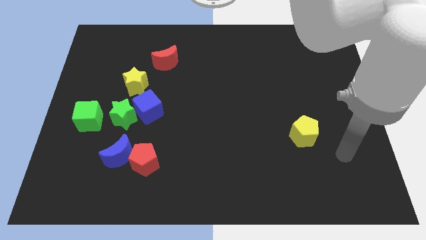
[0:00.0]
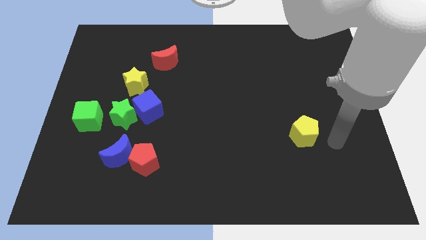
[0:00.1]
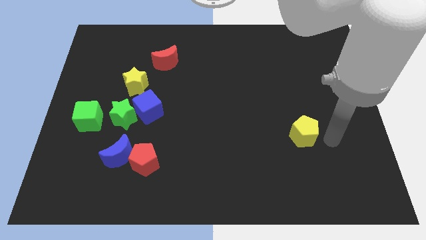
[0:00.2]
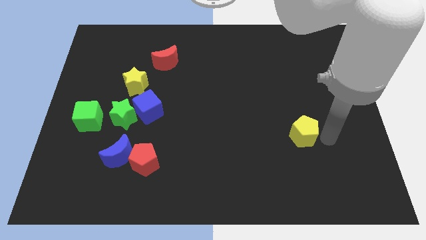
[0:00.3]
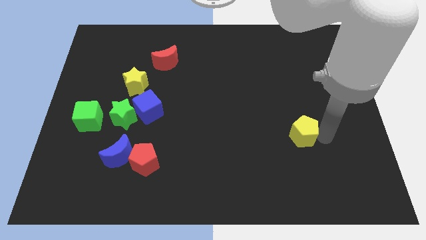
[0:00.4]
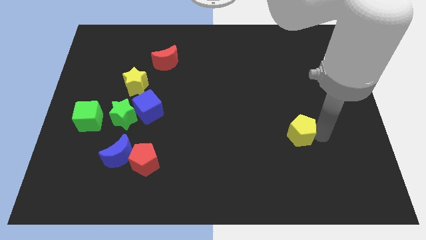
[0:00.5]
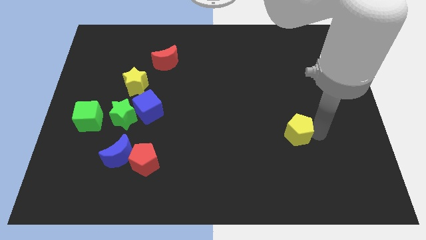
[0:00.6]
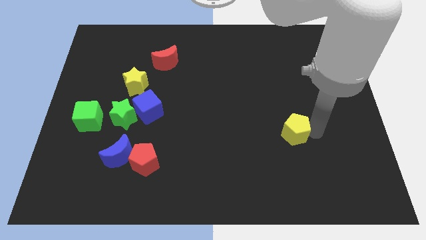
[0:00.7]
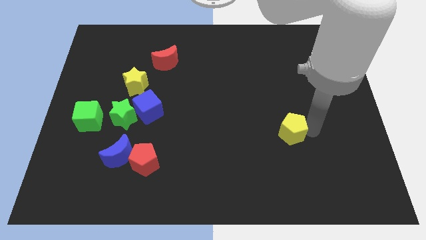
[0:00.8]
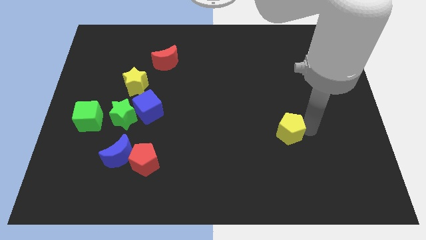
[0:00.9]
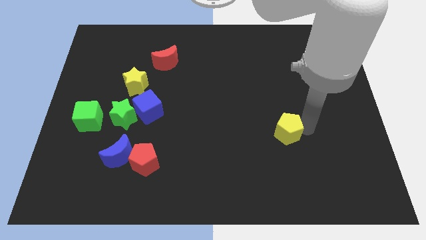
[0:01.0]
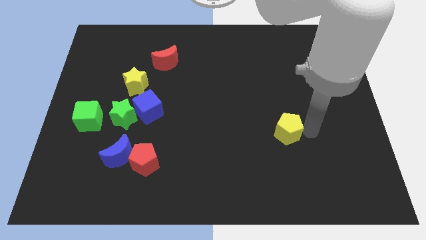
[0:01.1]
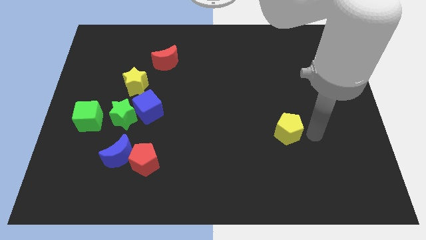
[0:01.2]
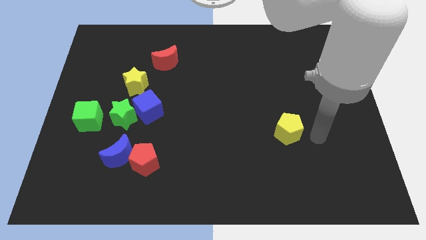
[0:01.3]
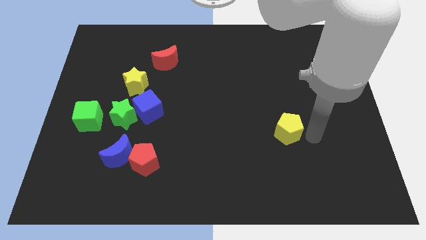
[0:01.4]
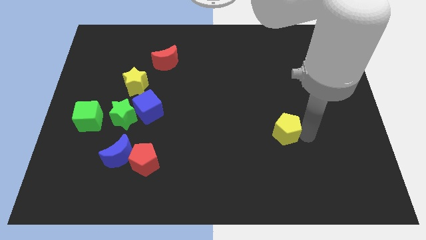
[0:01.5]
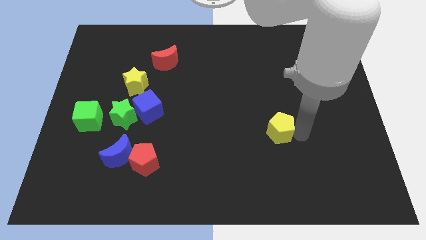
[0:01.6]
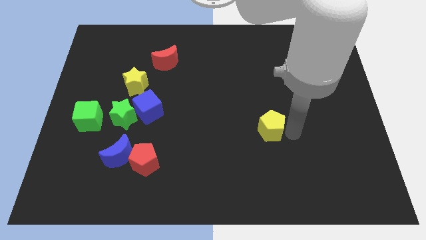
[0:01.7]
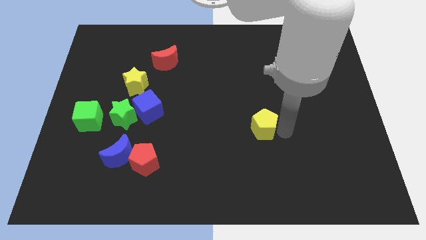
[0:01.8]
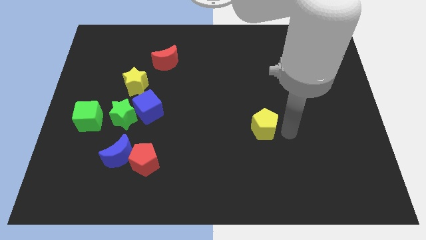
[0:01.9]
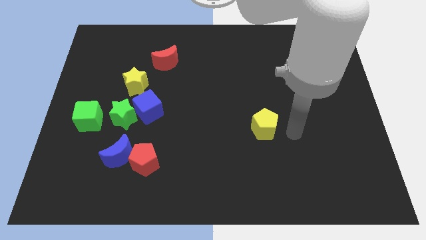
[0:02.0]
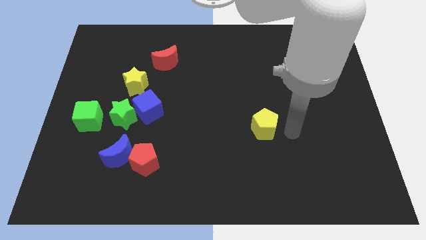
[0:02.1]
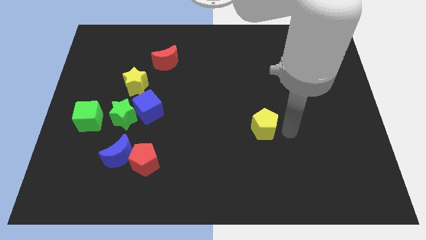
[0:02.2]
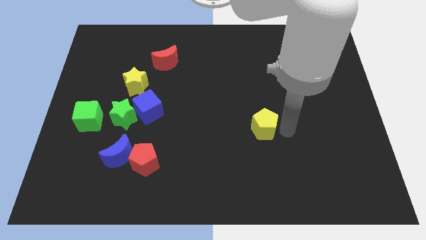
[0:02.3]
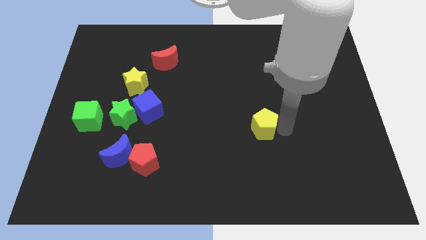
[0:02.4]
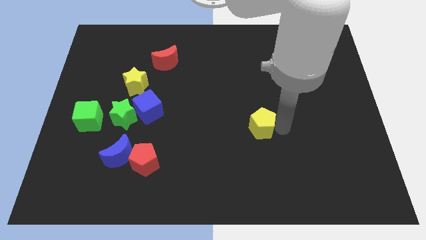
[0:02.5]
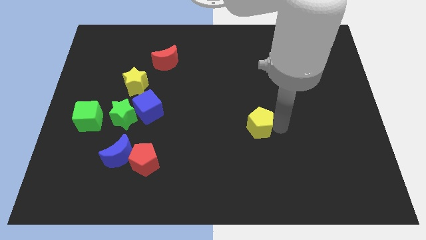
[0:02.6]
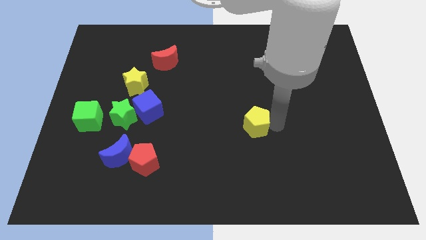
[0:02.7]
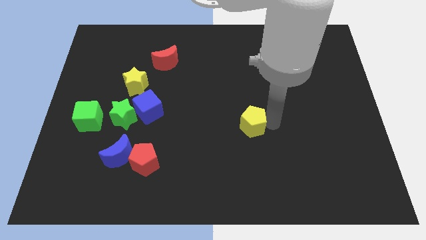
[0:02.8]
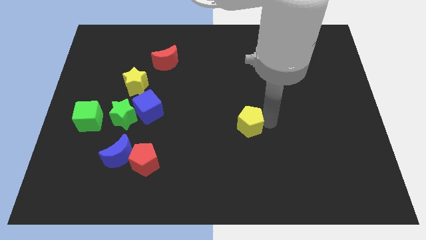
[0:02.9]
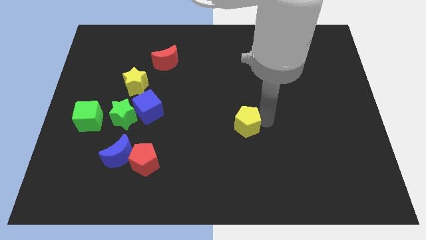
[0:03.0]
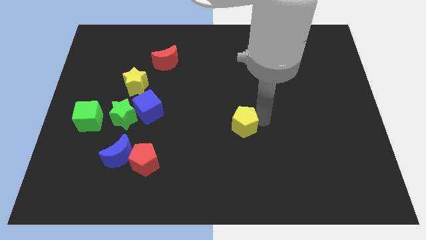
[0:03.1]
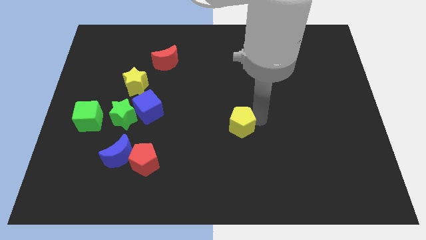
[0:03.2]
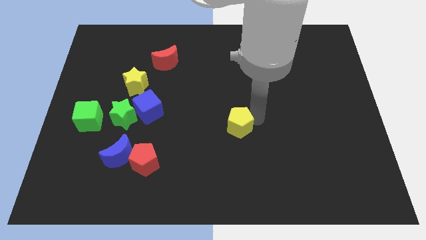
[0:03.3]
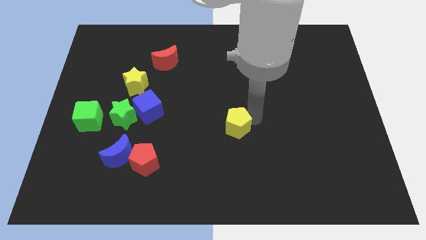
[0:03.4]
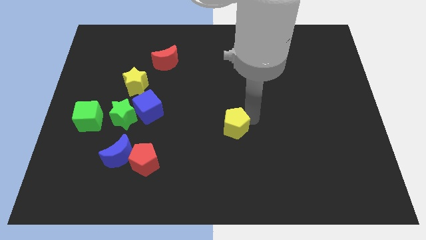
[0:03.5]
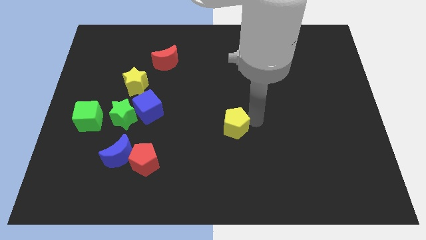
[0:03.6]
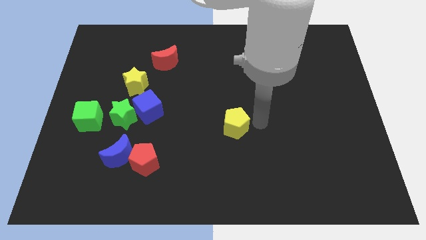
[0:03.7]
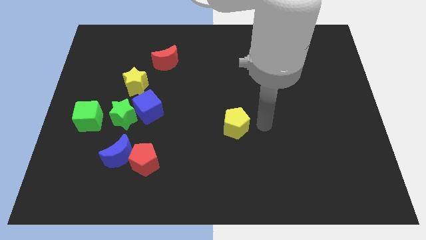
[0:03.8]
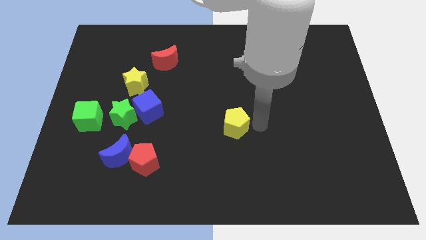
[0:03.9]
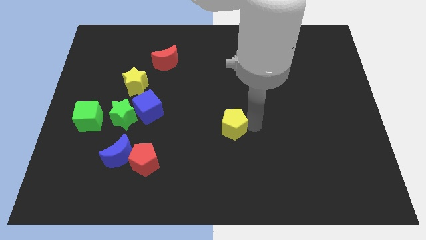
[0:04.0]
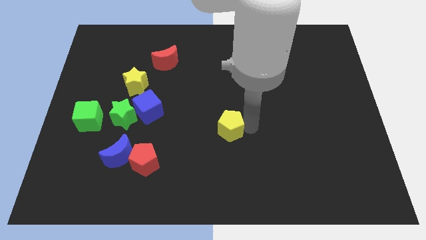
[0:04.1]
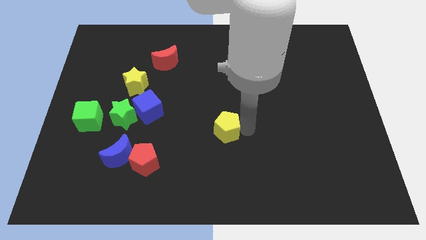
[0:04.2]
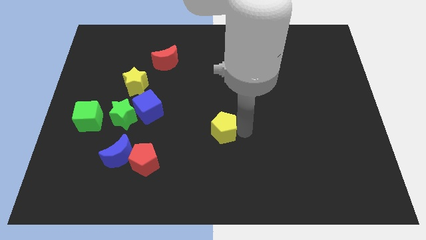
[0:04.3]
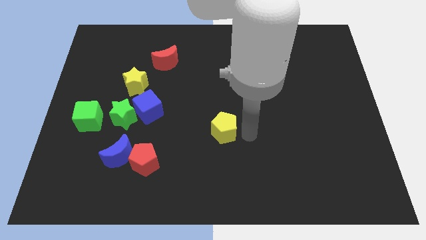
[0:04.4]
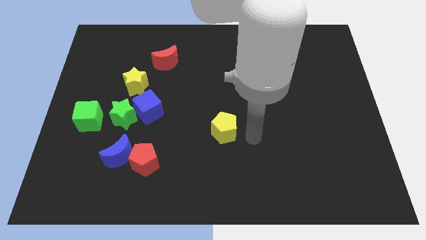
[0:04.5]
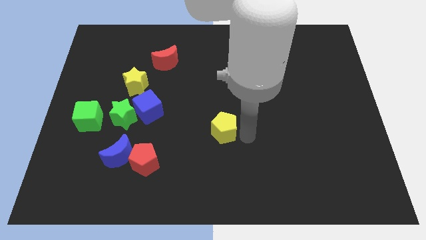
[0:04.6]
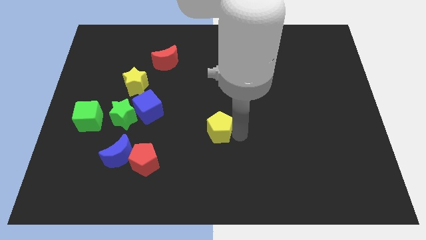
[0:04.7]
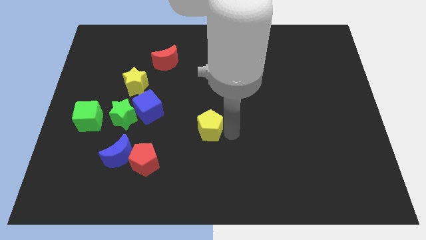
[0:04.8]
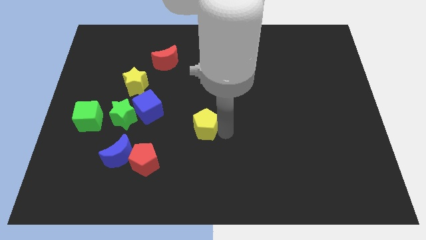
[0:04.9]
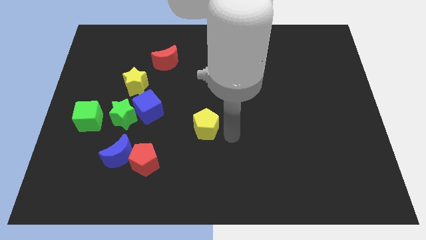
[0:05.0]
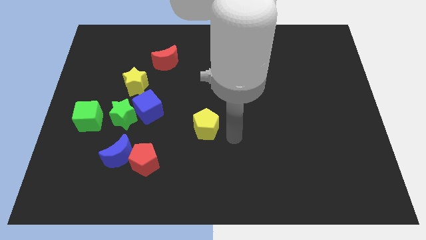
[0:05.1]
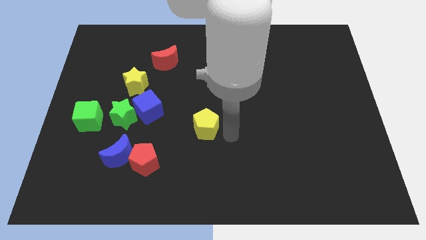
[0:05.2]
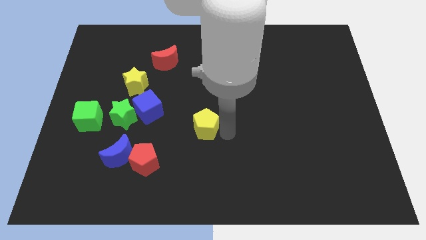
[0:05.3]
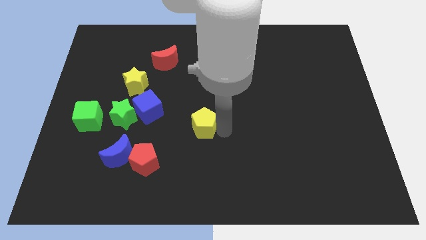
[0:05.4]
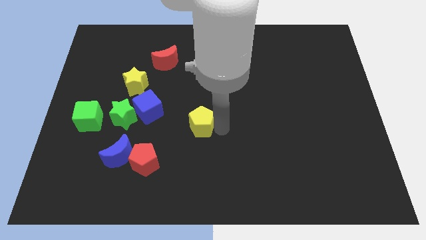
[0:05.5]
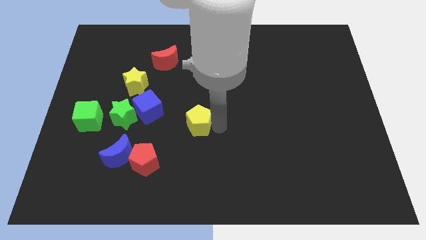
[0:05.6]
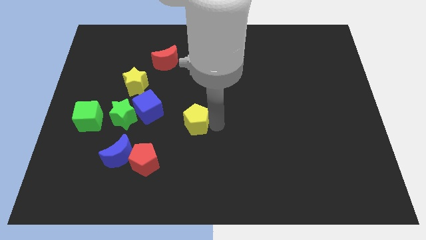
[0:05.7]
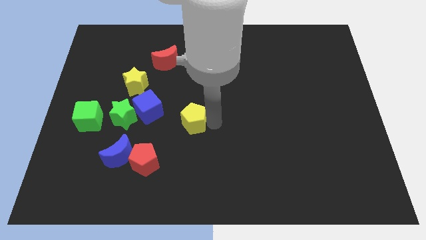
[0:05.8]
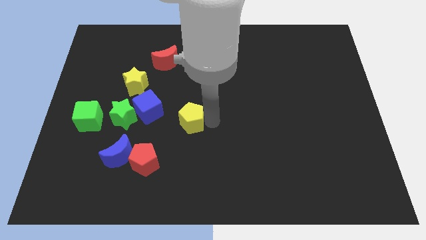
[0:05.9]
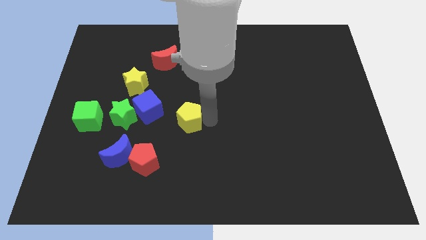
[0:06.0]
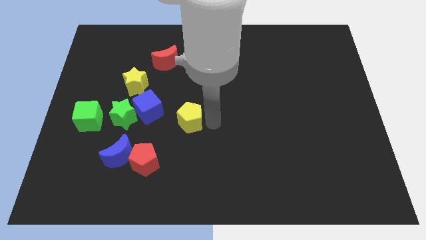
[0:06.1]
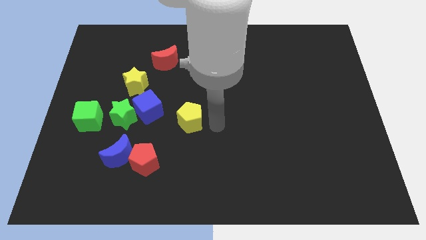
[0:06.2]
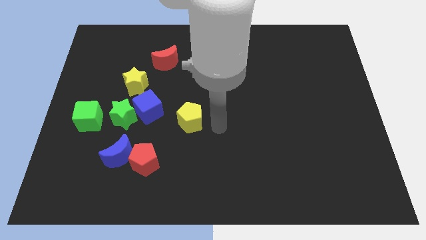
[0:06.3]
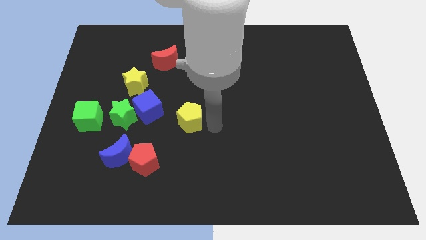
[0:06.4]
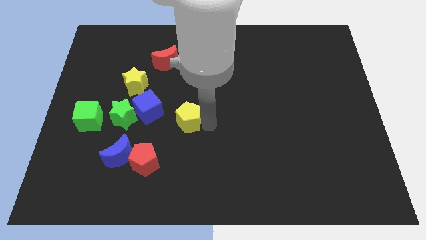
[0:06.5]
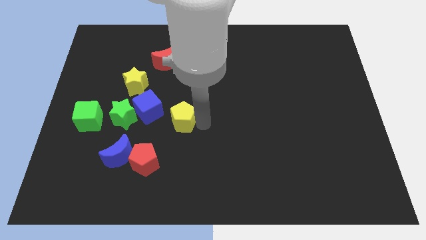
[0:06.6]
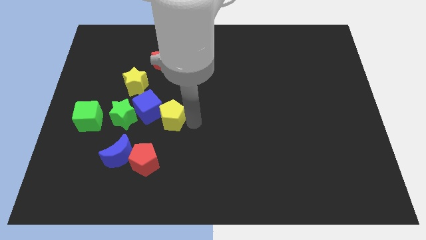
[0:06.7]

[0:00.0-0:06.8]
push the yellow pentagon close to the blue cube
